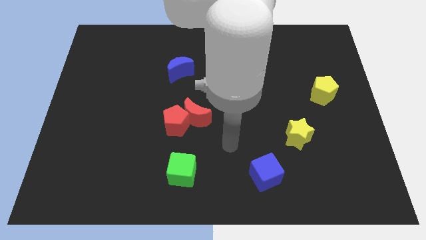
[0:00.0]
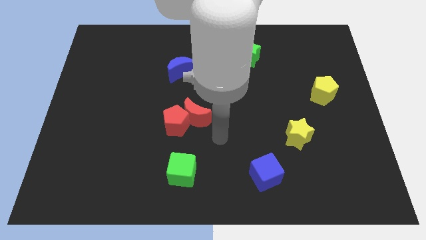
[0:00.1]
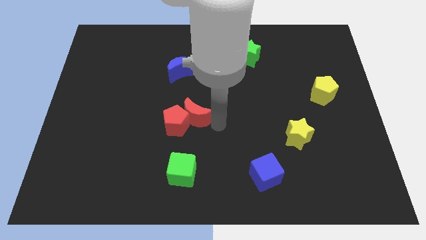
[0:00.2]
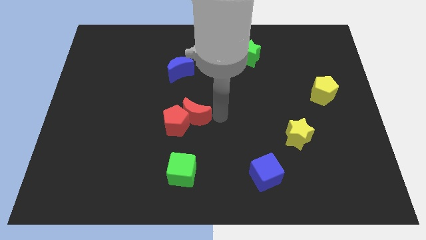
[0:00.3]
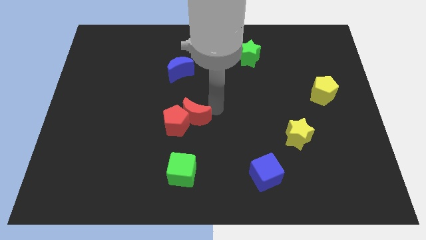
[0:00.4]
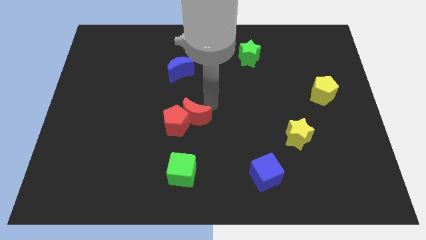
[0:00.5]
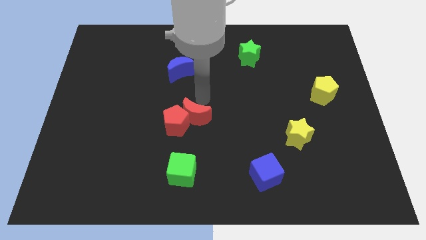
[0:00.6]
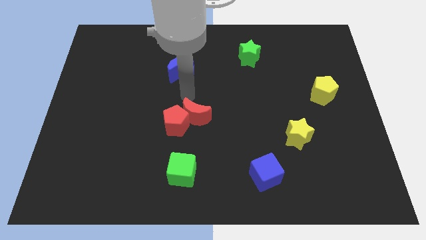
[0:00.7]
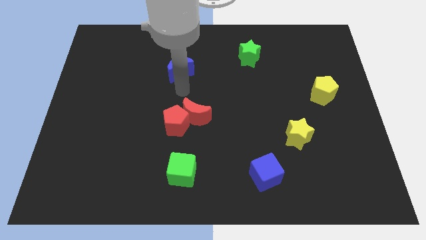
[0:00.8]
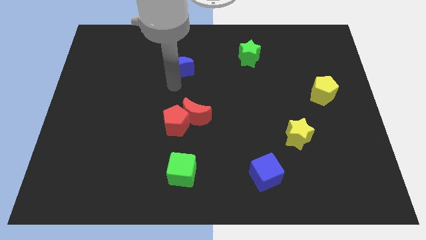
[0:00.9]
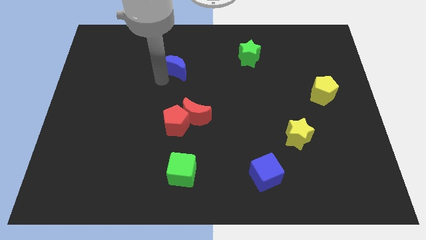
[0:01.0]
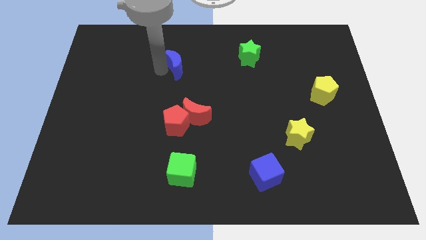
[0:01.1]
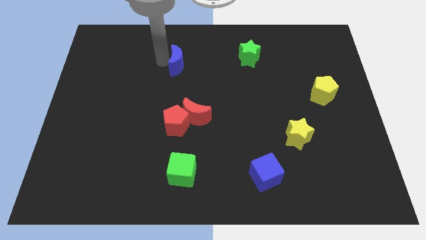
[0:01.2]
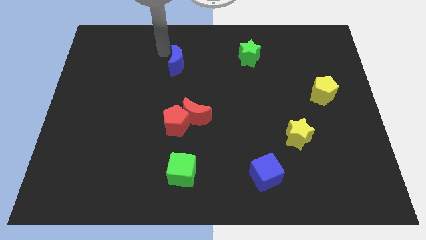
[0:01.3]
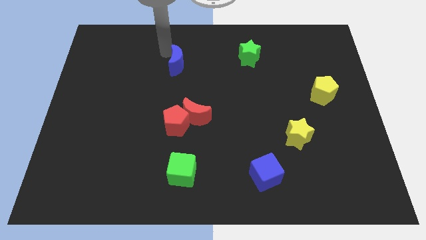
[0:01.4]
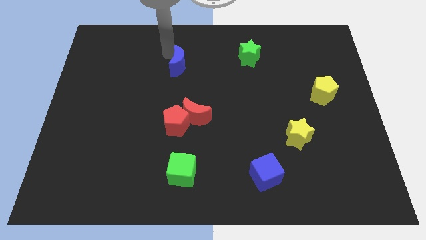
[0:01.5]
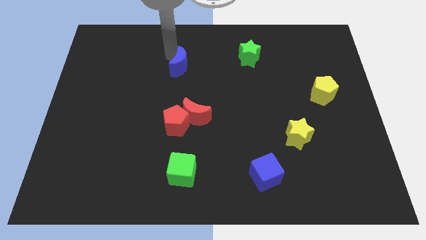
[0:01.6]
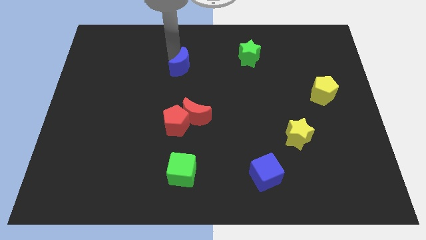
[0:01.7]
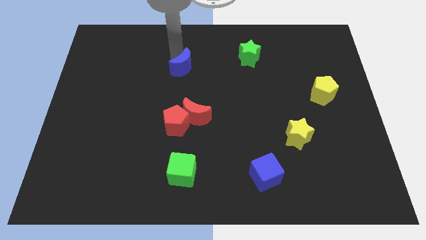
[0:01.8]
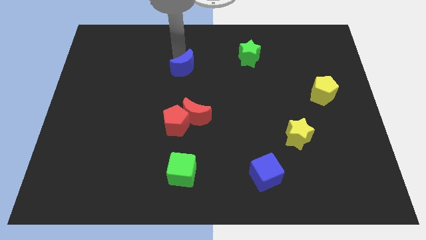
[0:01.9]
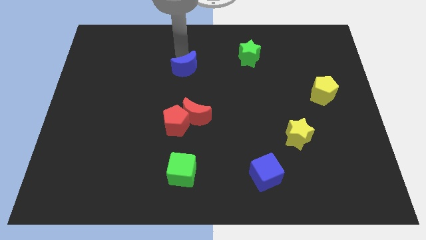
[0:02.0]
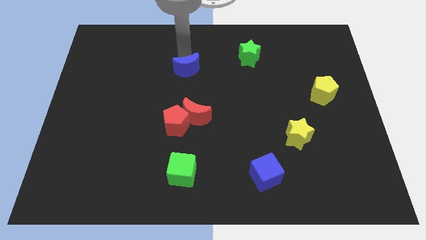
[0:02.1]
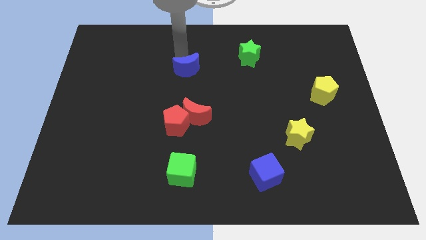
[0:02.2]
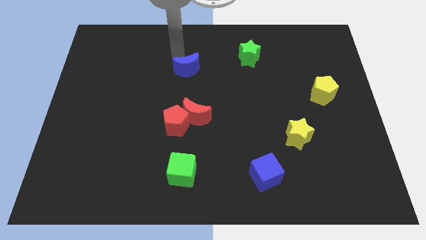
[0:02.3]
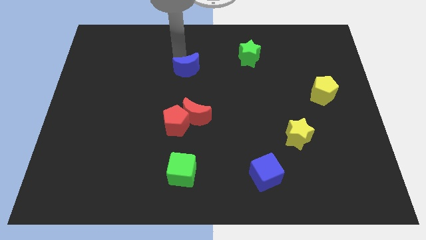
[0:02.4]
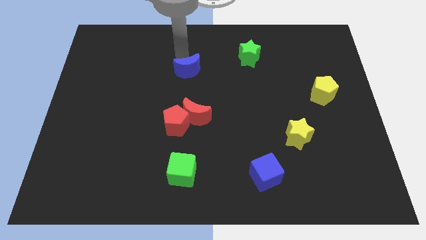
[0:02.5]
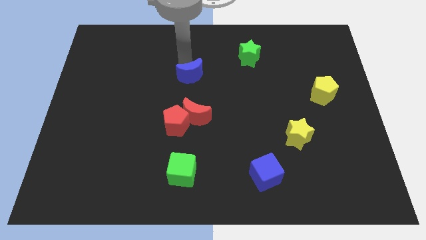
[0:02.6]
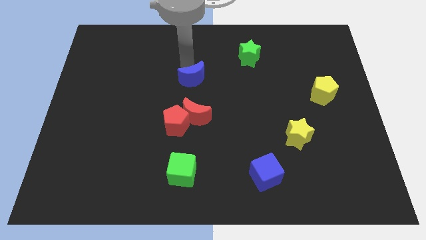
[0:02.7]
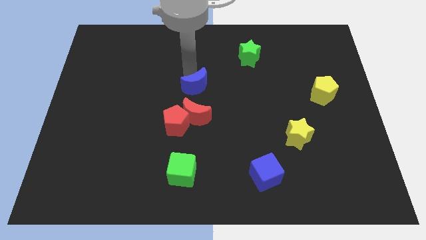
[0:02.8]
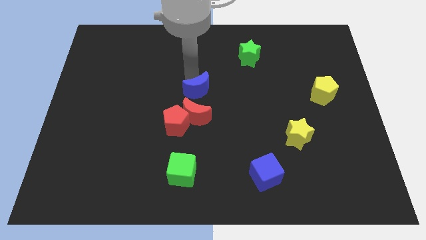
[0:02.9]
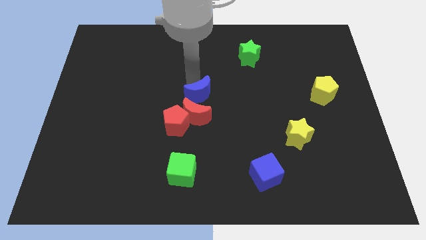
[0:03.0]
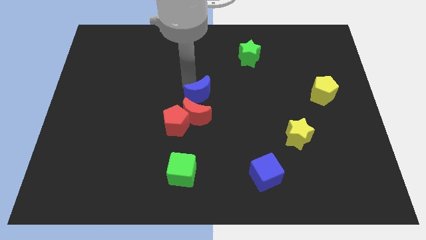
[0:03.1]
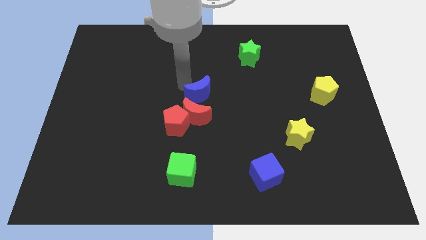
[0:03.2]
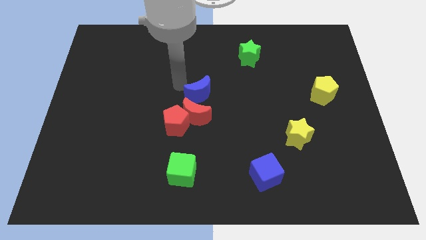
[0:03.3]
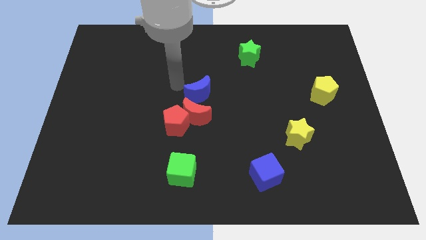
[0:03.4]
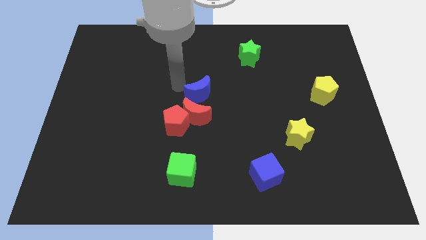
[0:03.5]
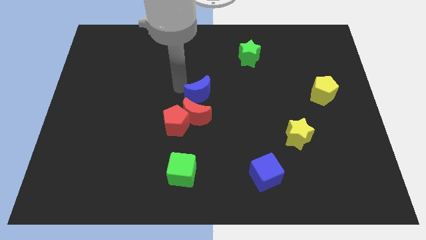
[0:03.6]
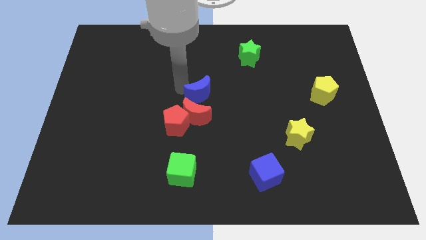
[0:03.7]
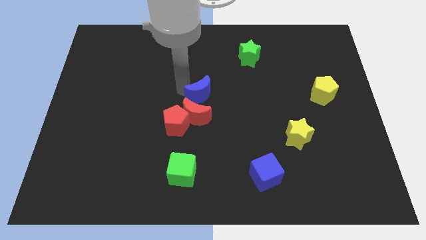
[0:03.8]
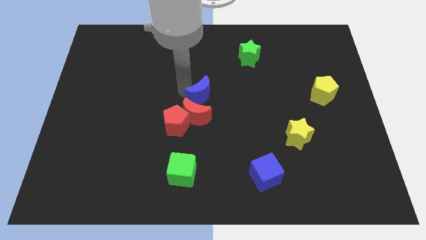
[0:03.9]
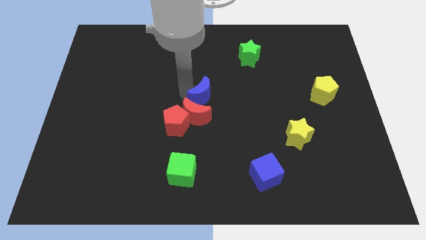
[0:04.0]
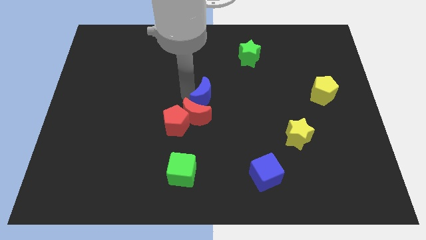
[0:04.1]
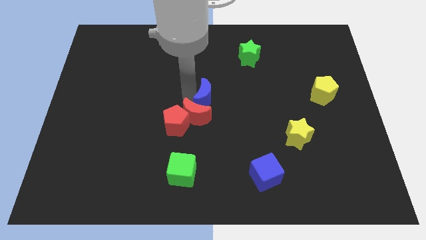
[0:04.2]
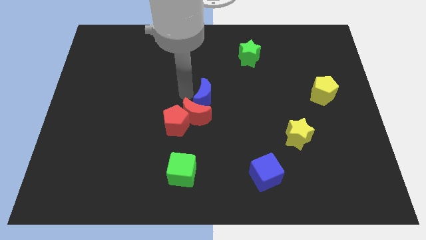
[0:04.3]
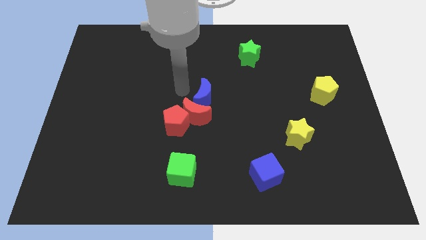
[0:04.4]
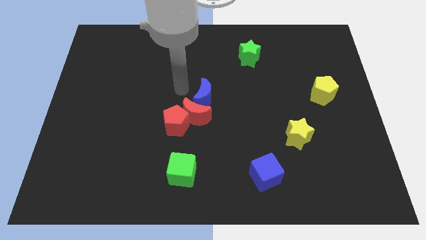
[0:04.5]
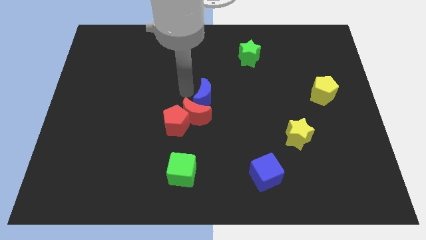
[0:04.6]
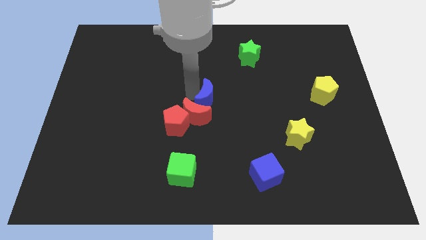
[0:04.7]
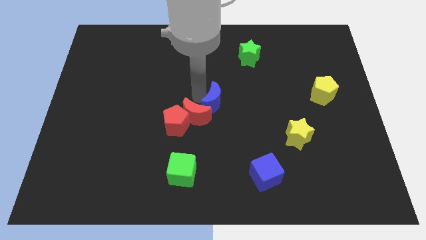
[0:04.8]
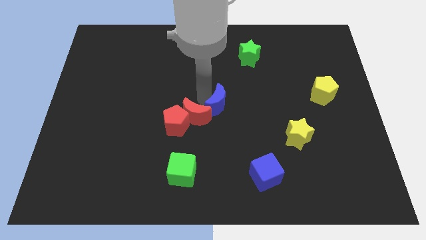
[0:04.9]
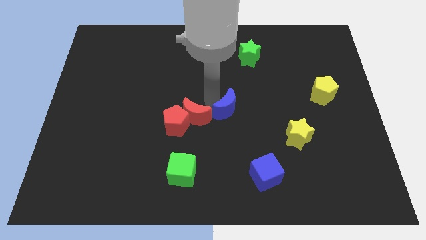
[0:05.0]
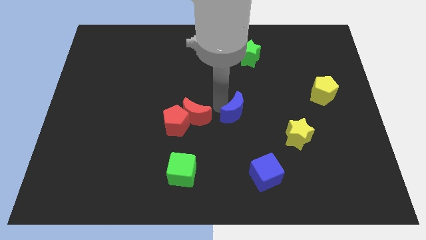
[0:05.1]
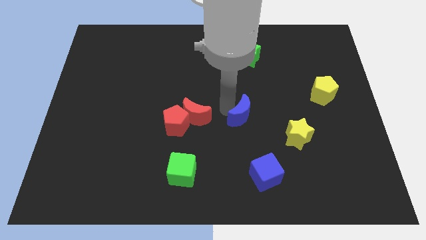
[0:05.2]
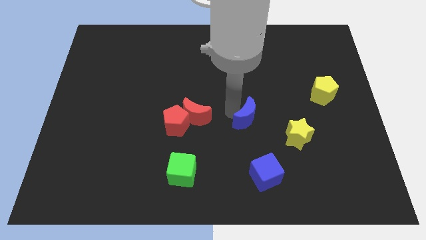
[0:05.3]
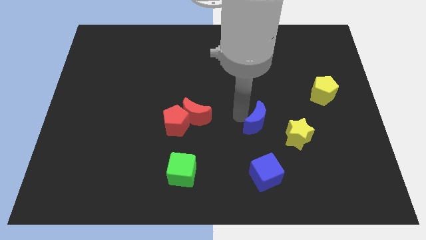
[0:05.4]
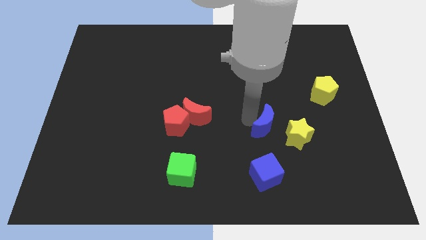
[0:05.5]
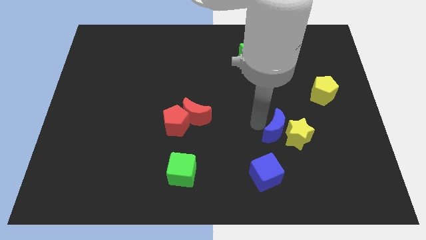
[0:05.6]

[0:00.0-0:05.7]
move the blue moon close to the yellow star

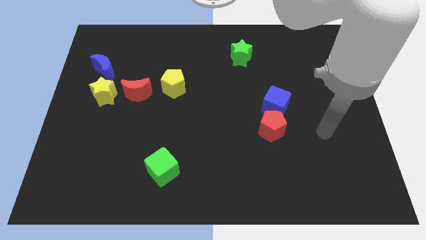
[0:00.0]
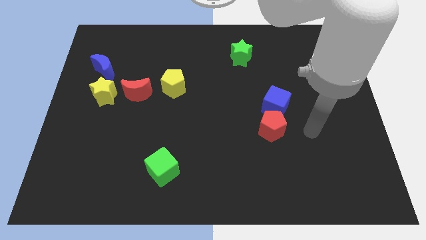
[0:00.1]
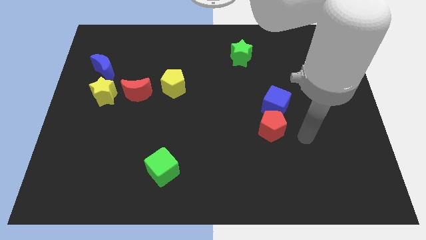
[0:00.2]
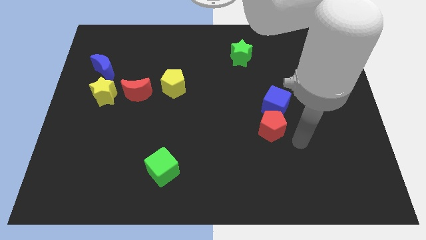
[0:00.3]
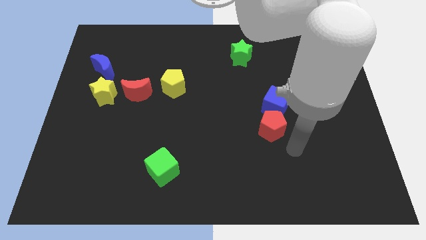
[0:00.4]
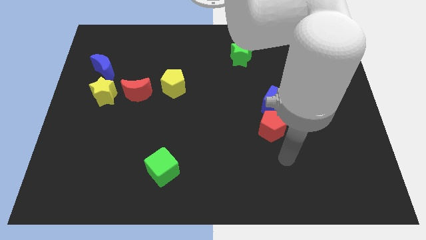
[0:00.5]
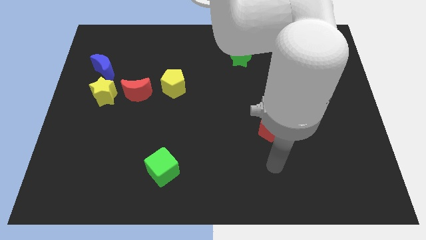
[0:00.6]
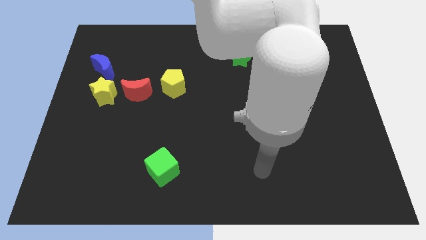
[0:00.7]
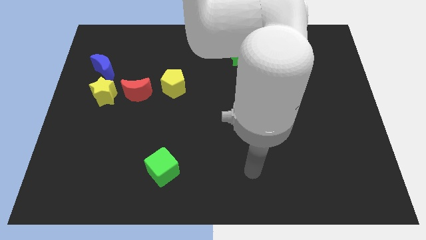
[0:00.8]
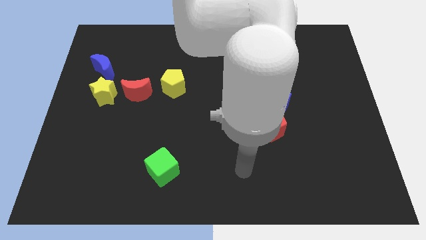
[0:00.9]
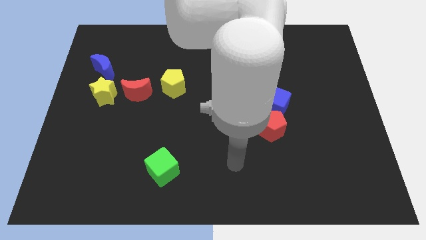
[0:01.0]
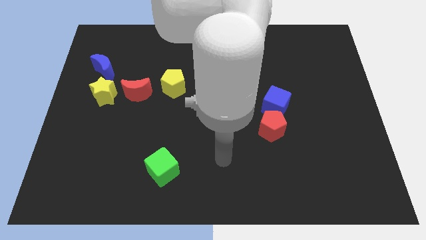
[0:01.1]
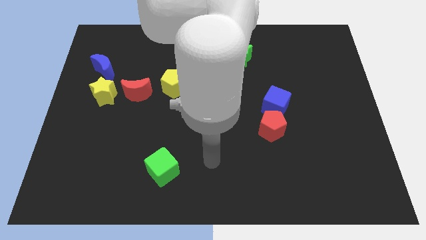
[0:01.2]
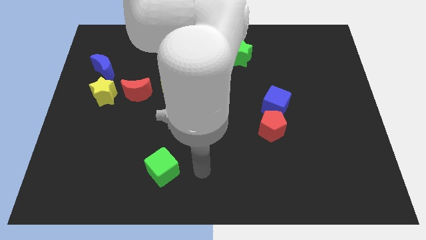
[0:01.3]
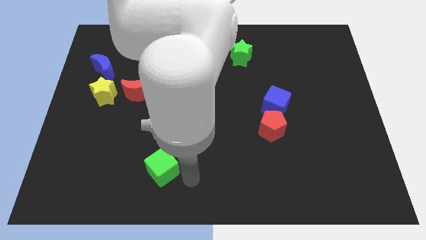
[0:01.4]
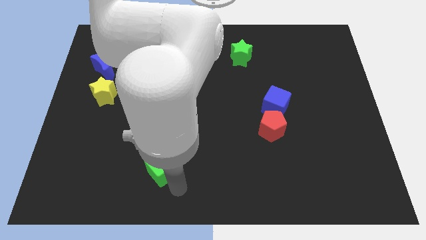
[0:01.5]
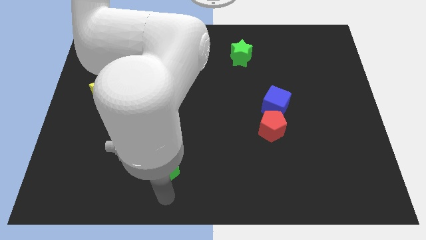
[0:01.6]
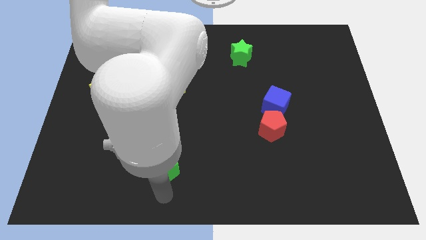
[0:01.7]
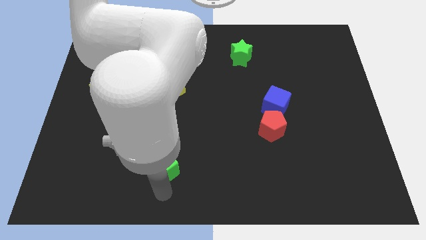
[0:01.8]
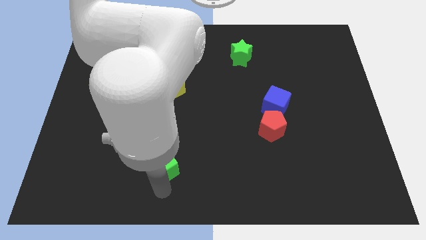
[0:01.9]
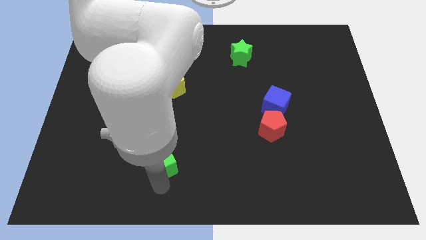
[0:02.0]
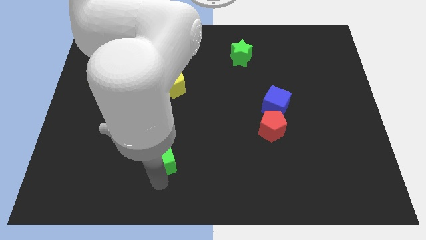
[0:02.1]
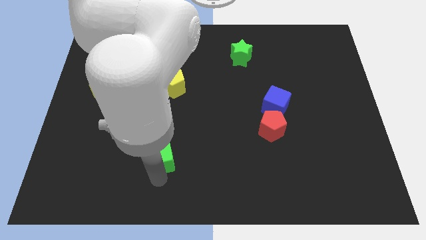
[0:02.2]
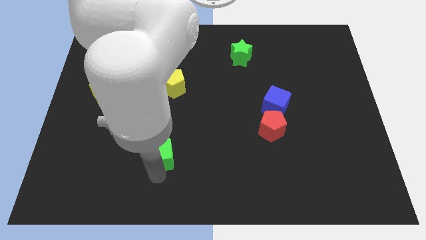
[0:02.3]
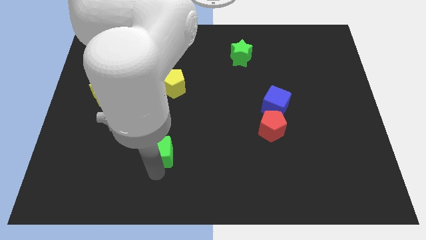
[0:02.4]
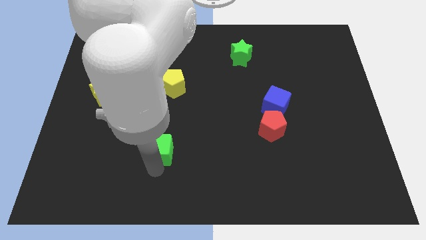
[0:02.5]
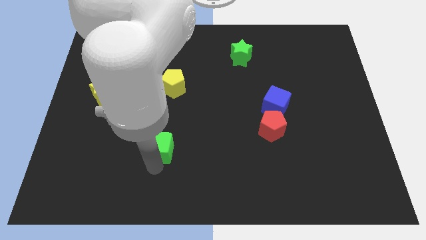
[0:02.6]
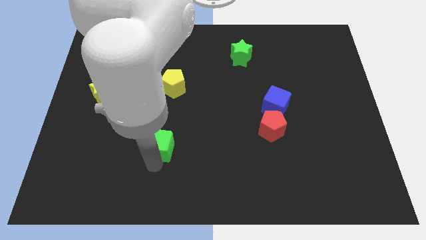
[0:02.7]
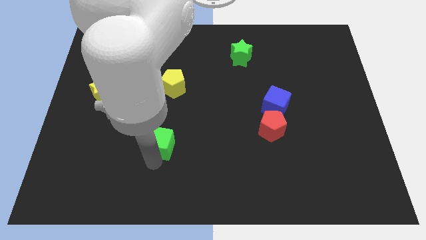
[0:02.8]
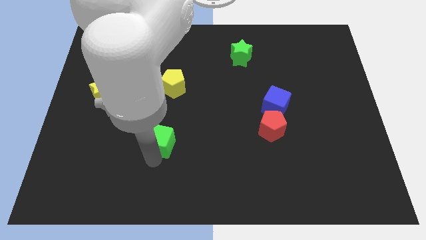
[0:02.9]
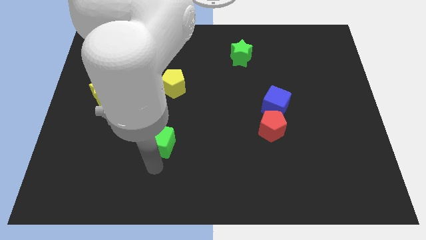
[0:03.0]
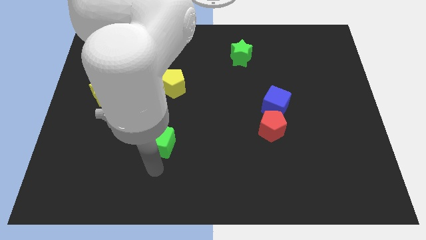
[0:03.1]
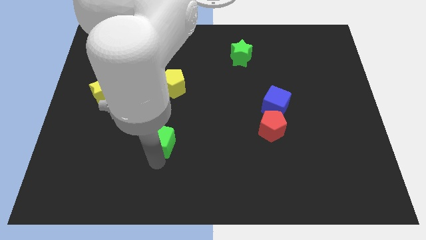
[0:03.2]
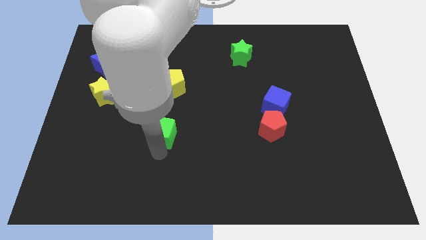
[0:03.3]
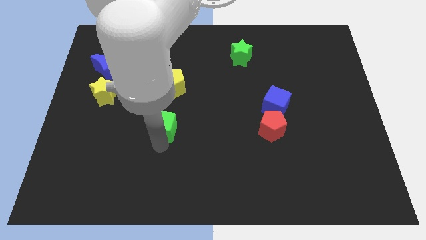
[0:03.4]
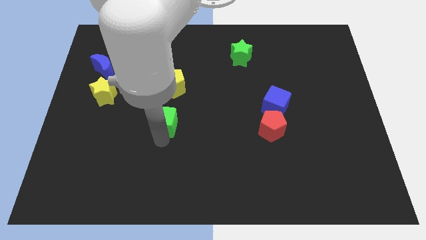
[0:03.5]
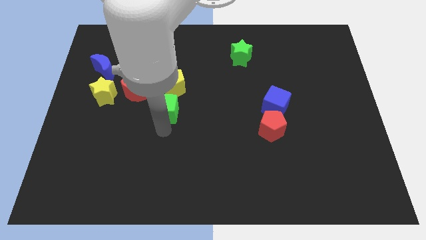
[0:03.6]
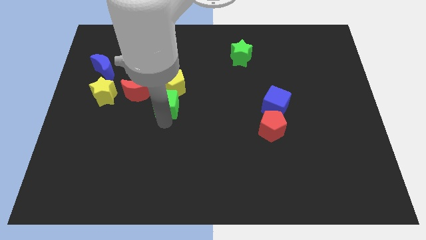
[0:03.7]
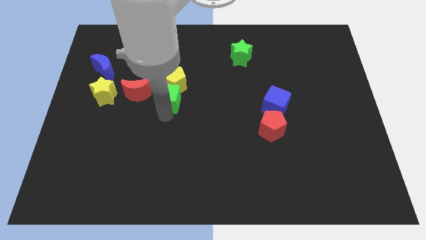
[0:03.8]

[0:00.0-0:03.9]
push the green cube to the yellow pentagon
